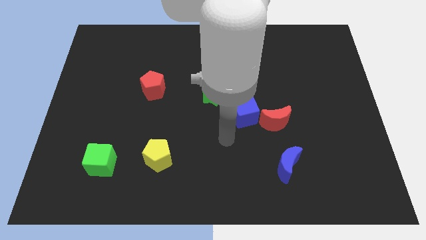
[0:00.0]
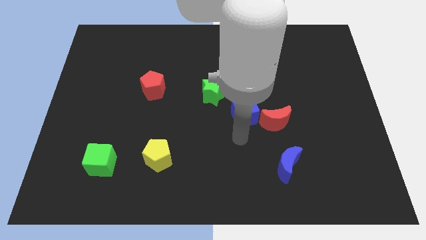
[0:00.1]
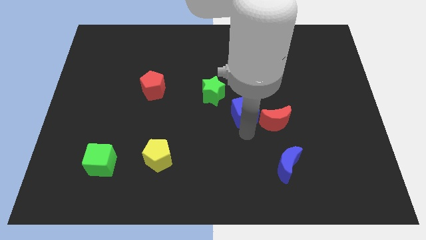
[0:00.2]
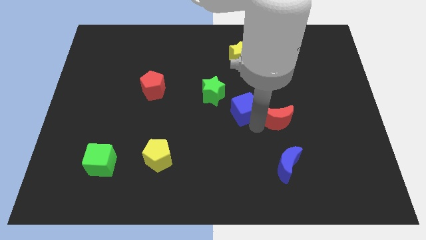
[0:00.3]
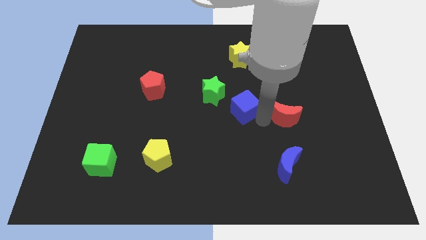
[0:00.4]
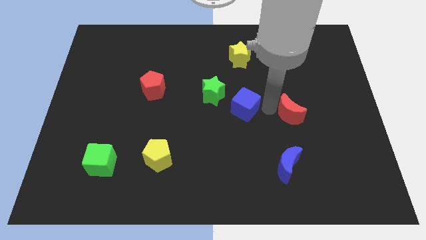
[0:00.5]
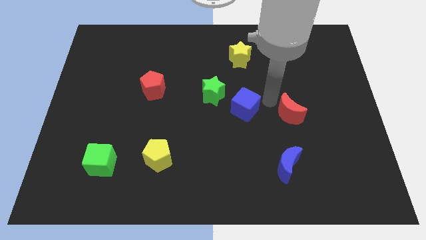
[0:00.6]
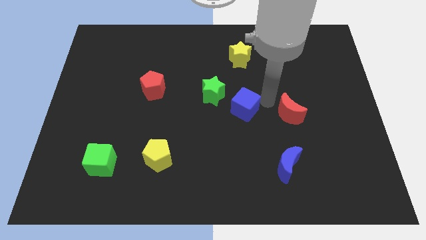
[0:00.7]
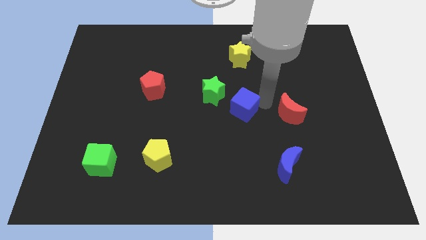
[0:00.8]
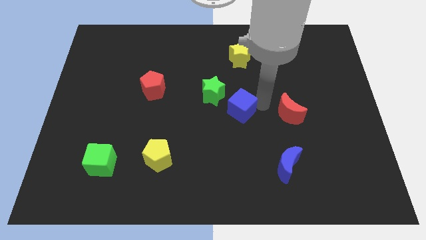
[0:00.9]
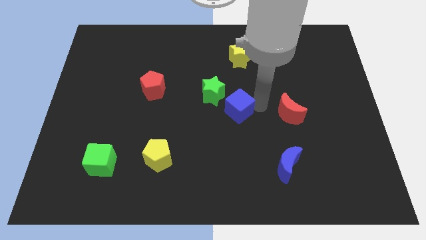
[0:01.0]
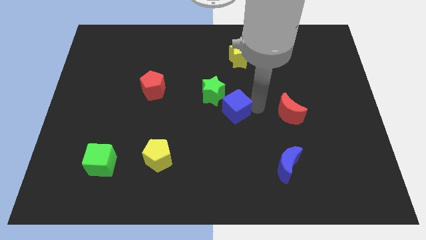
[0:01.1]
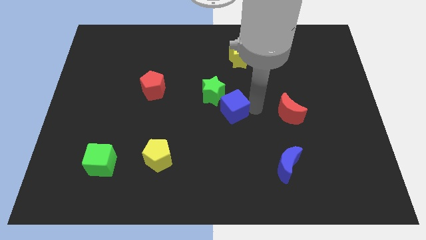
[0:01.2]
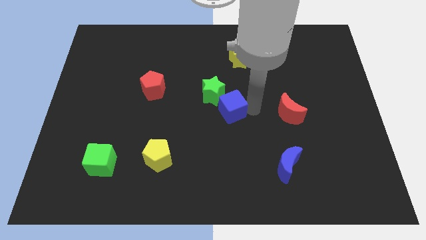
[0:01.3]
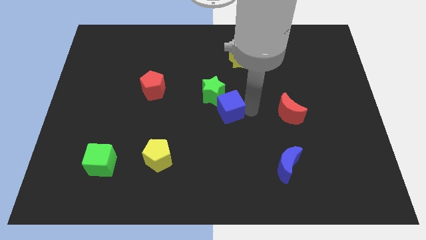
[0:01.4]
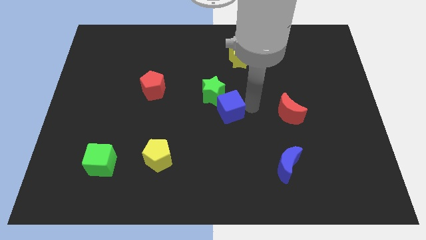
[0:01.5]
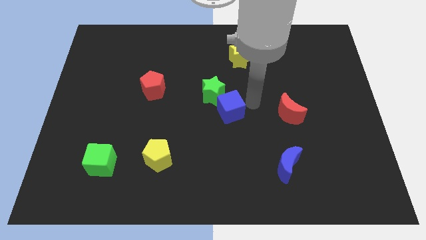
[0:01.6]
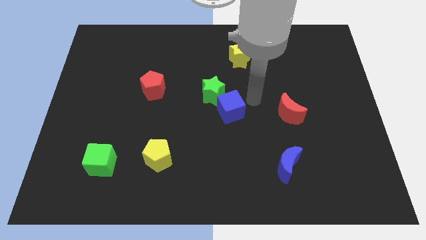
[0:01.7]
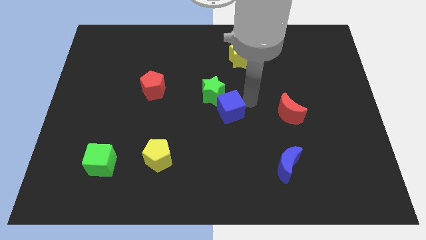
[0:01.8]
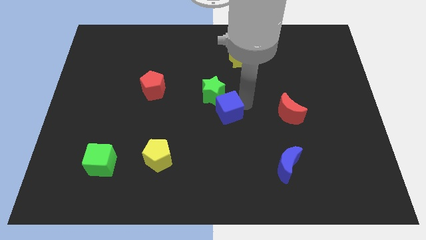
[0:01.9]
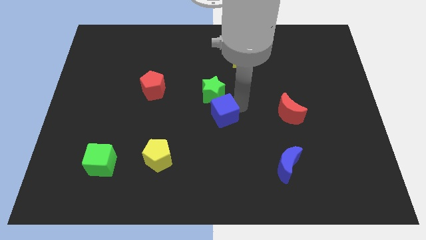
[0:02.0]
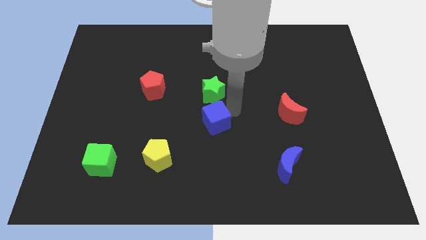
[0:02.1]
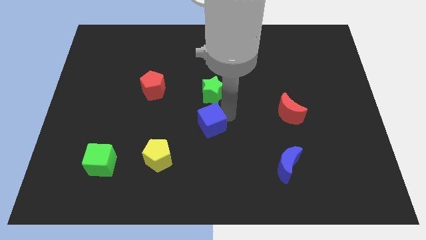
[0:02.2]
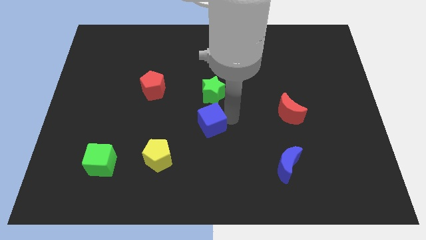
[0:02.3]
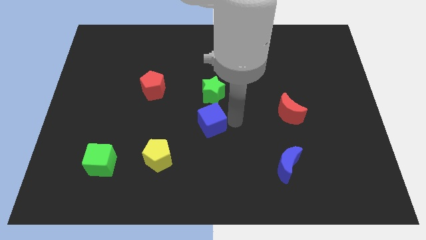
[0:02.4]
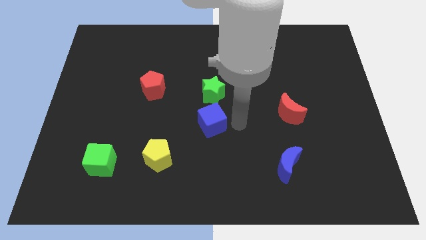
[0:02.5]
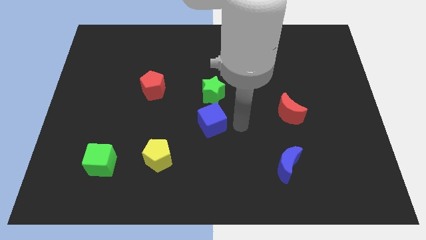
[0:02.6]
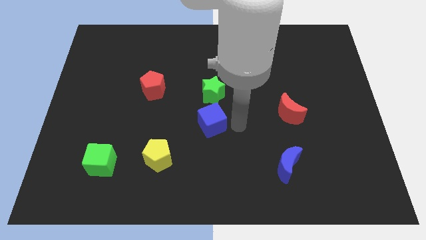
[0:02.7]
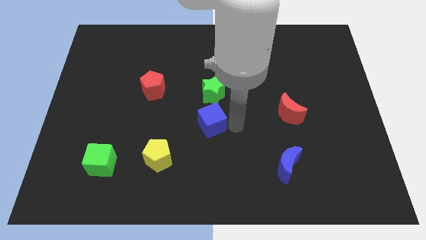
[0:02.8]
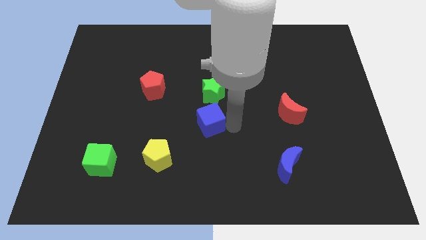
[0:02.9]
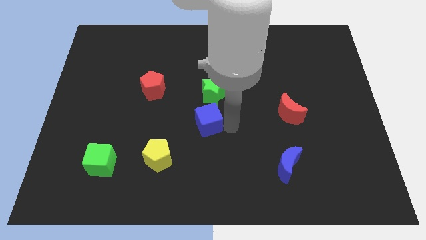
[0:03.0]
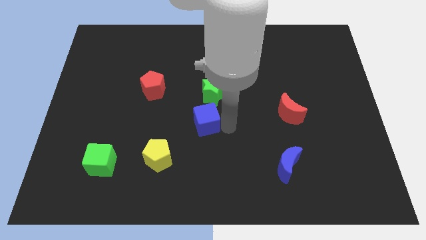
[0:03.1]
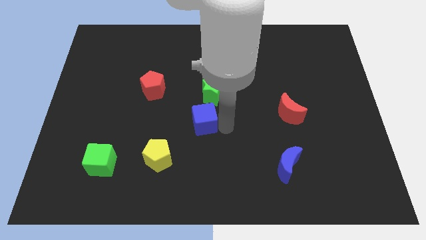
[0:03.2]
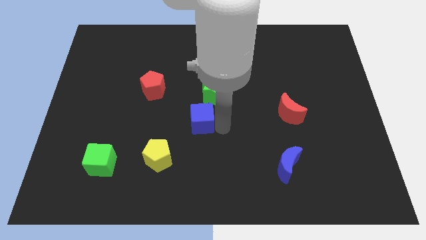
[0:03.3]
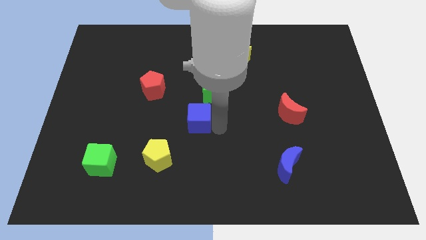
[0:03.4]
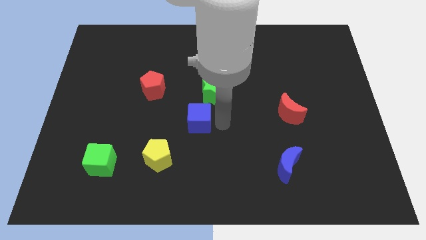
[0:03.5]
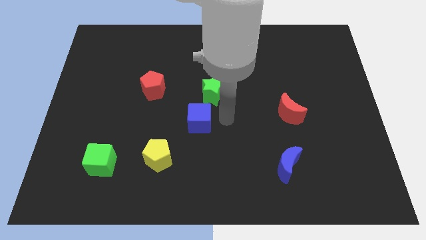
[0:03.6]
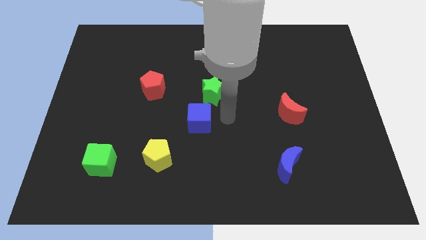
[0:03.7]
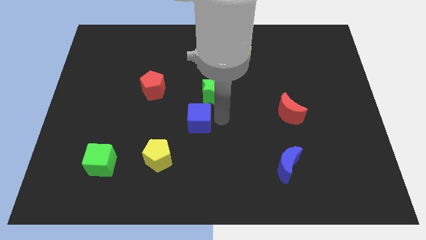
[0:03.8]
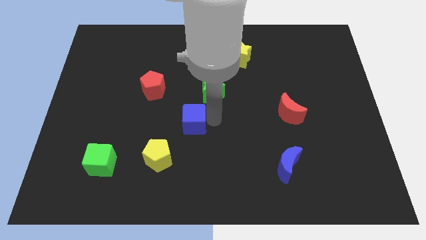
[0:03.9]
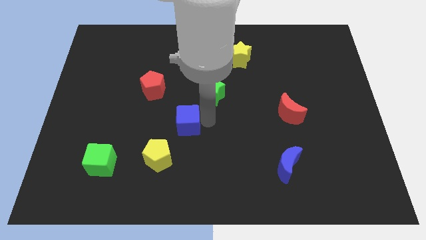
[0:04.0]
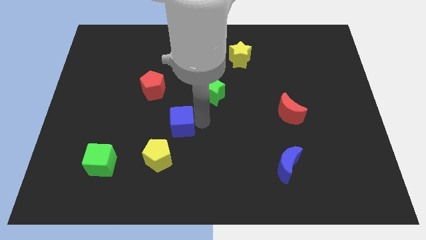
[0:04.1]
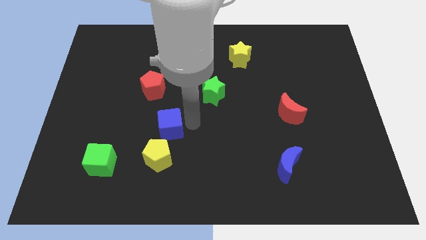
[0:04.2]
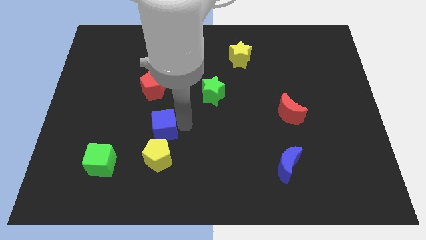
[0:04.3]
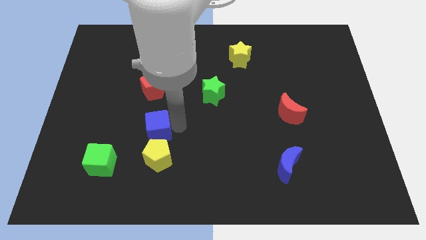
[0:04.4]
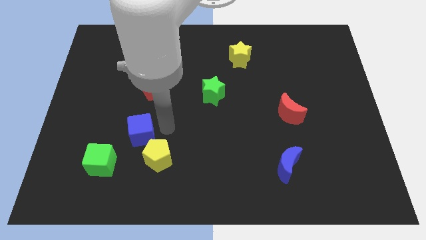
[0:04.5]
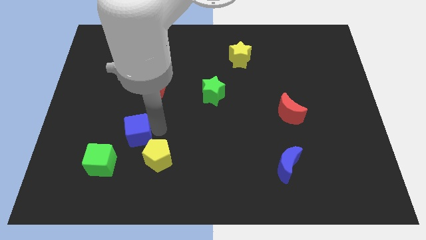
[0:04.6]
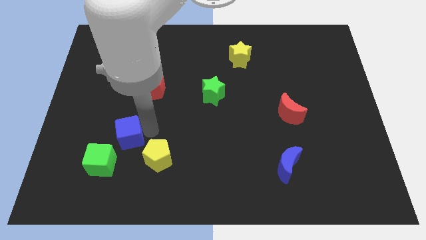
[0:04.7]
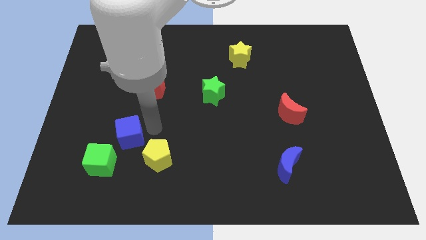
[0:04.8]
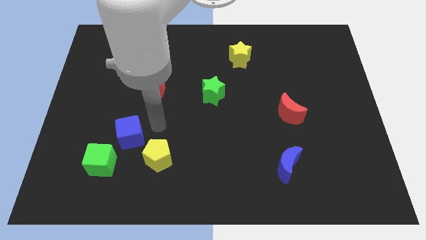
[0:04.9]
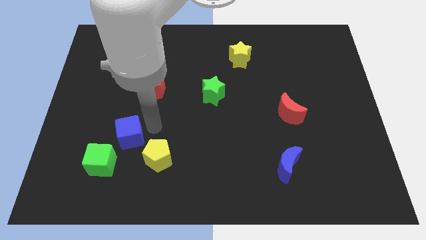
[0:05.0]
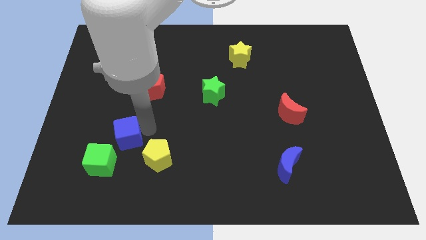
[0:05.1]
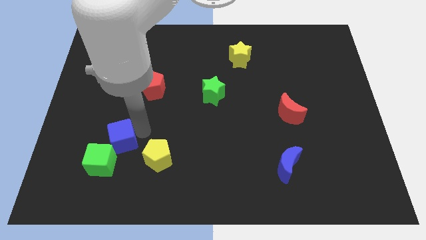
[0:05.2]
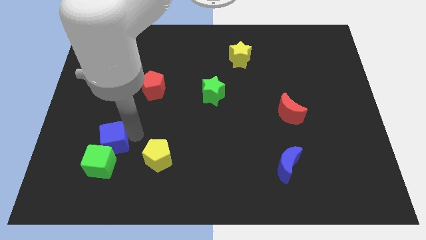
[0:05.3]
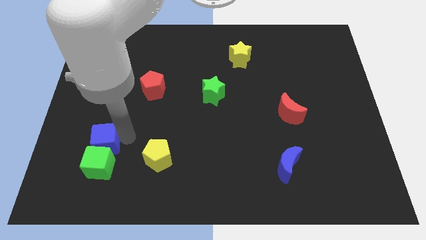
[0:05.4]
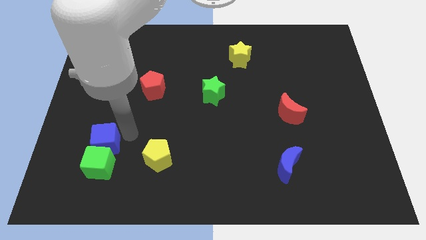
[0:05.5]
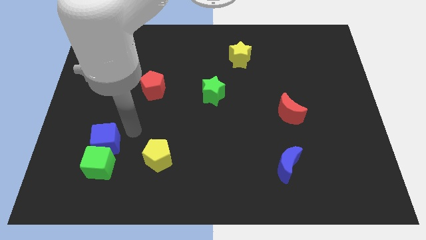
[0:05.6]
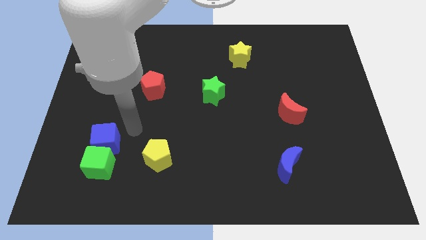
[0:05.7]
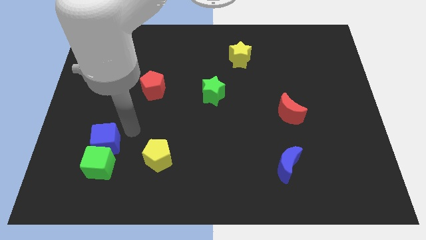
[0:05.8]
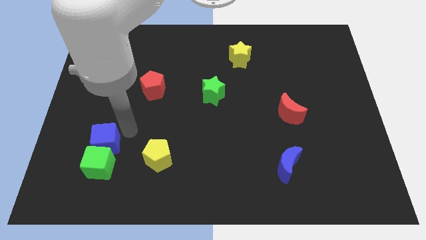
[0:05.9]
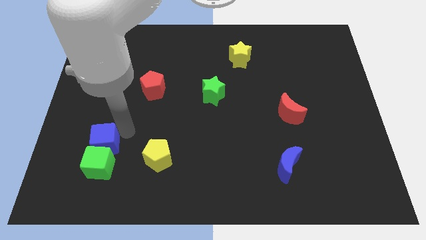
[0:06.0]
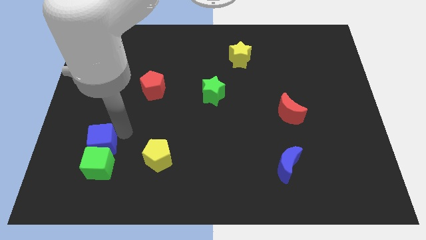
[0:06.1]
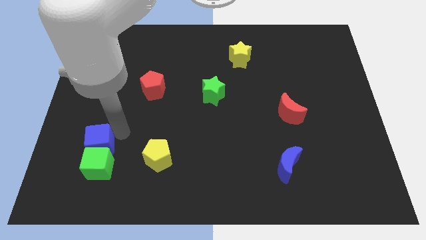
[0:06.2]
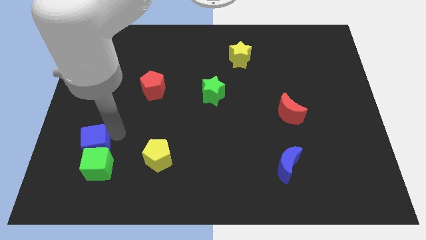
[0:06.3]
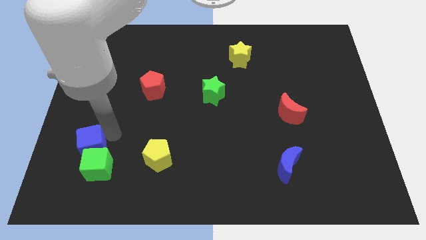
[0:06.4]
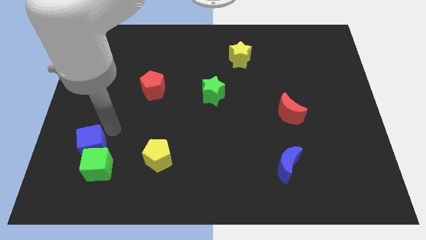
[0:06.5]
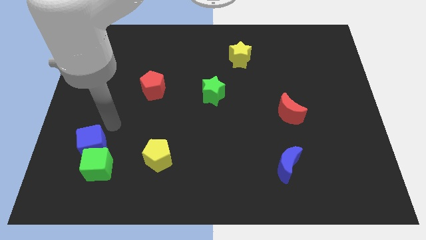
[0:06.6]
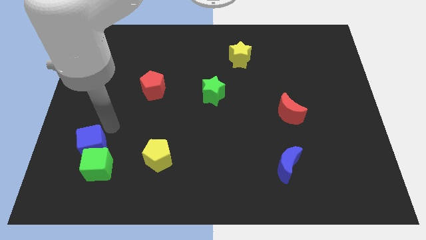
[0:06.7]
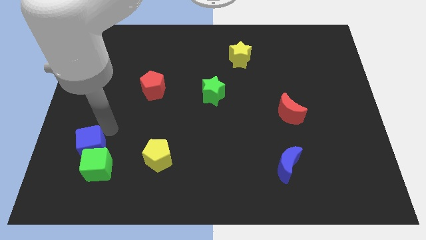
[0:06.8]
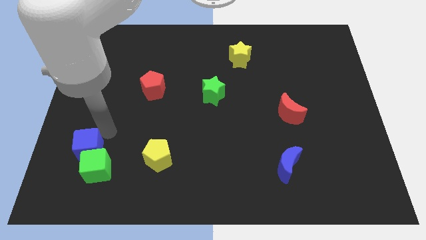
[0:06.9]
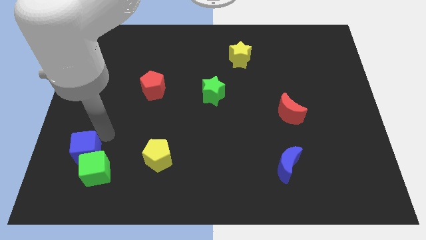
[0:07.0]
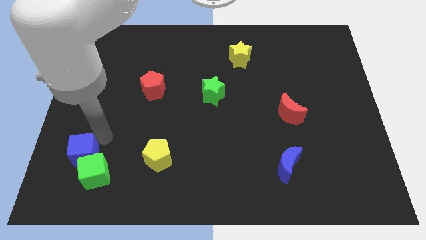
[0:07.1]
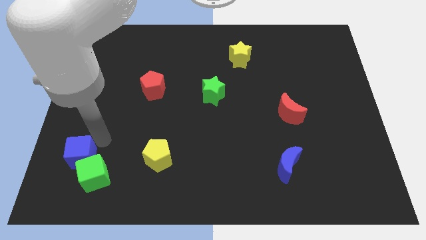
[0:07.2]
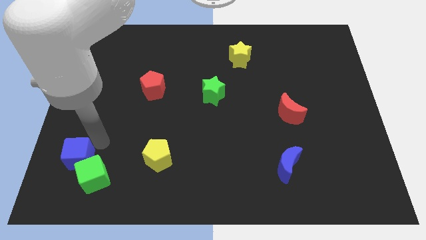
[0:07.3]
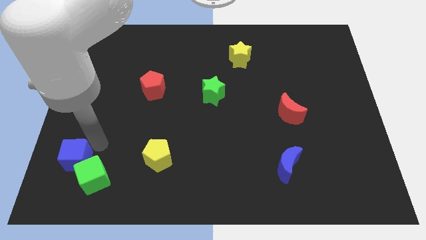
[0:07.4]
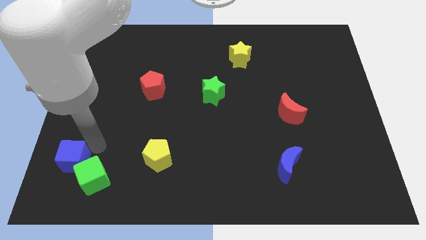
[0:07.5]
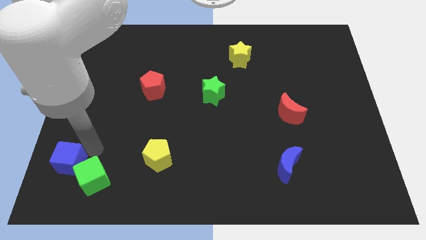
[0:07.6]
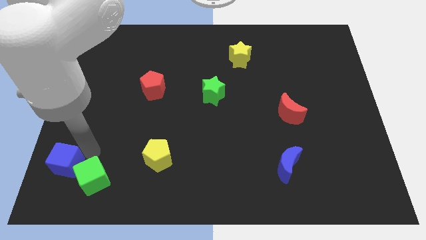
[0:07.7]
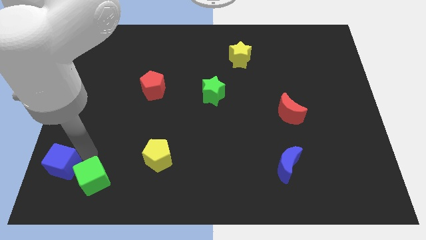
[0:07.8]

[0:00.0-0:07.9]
move the blue cube to the bottom left of the board
